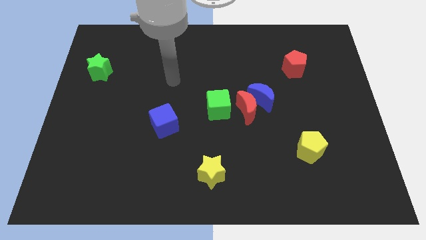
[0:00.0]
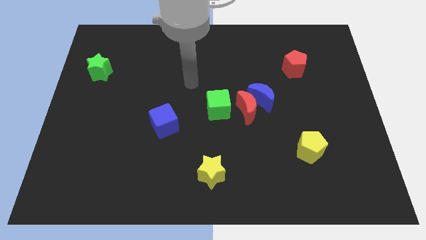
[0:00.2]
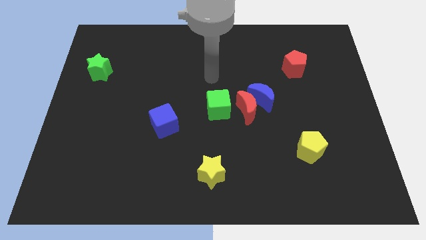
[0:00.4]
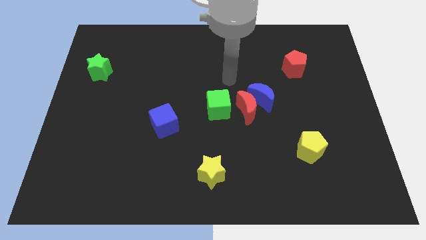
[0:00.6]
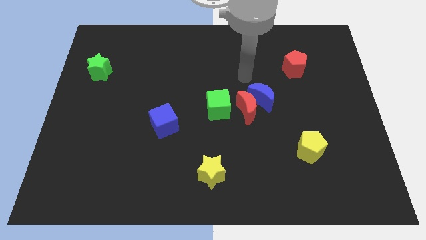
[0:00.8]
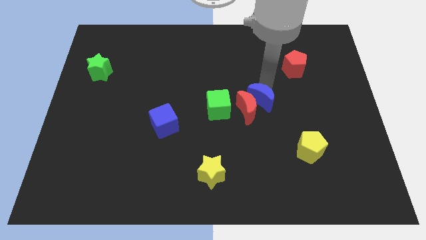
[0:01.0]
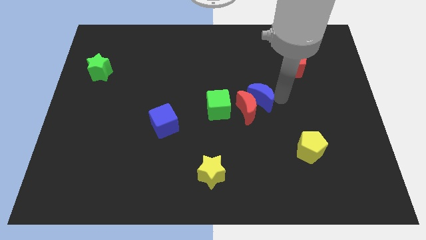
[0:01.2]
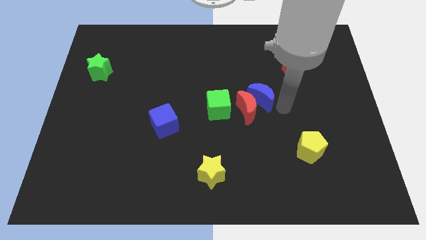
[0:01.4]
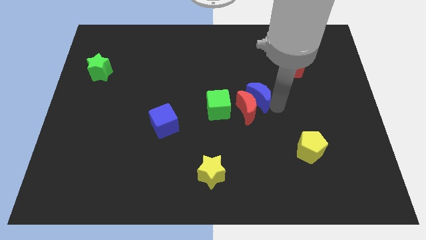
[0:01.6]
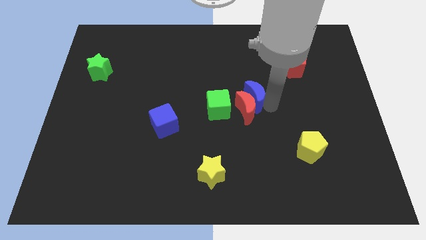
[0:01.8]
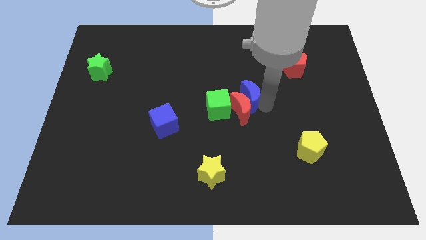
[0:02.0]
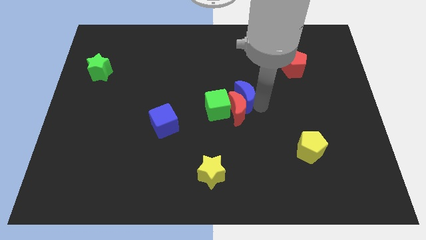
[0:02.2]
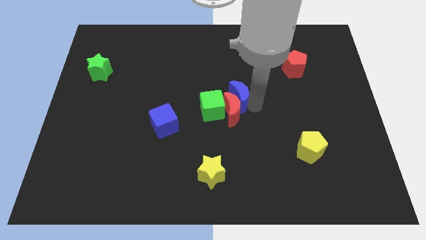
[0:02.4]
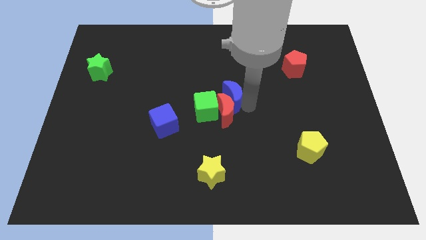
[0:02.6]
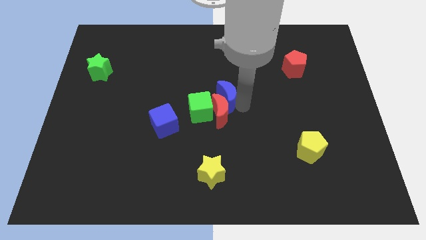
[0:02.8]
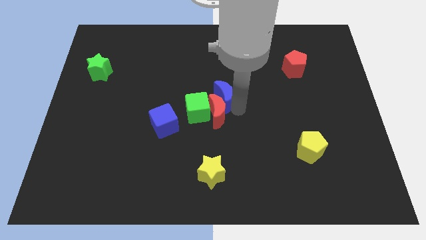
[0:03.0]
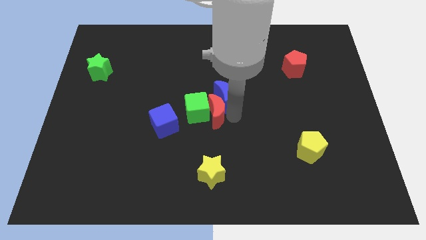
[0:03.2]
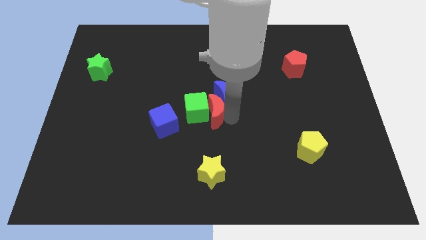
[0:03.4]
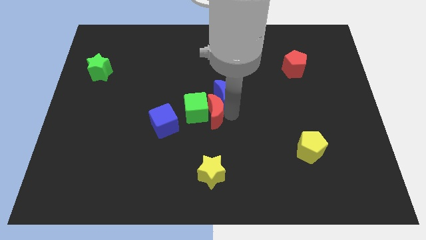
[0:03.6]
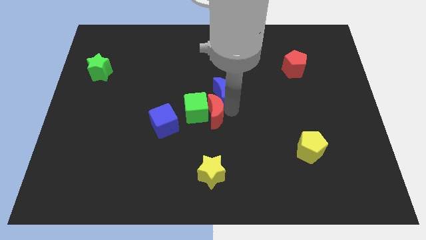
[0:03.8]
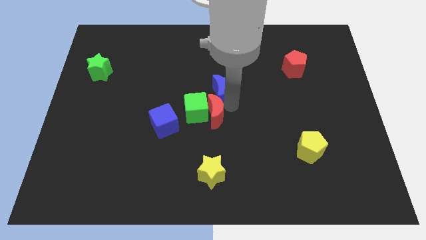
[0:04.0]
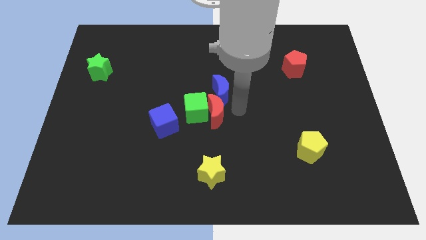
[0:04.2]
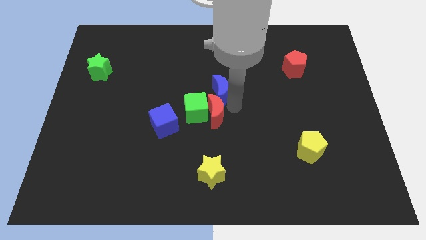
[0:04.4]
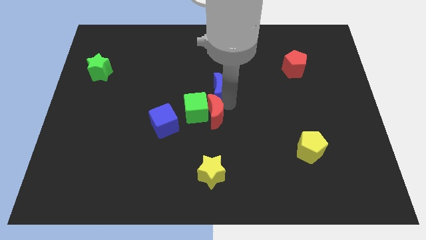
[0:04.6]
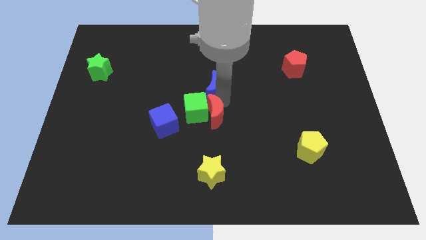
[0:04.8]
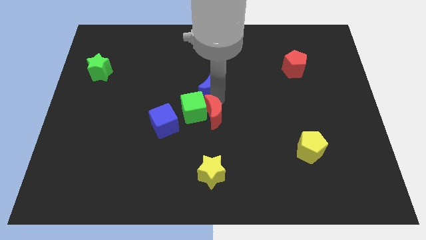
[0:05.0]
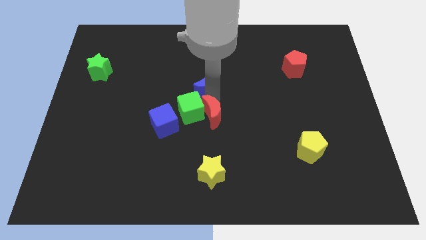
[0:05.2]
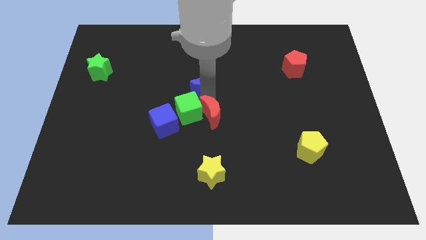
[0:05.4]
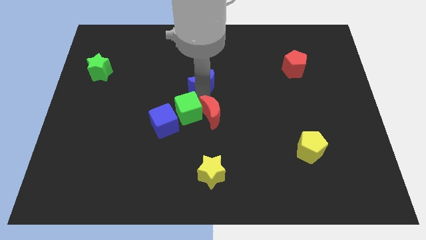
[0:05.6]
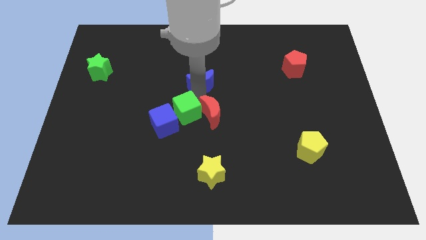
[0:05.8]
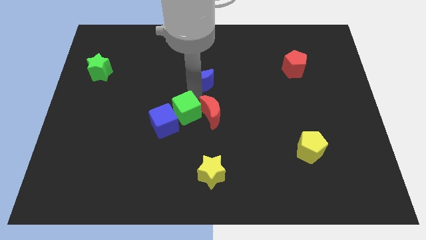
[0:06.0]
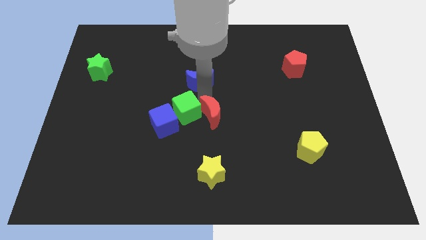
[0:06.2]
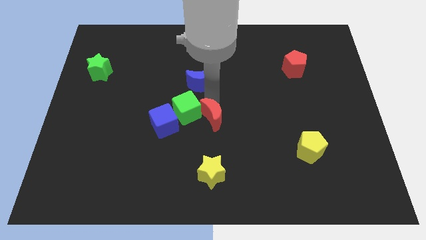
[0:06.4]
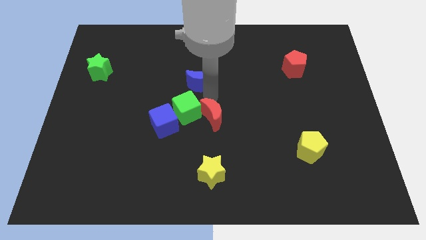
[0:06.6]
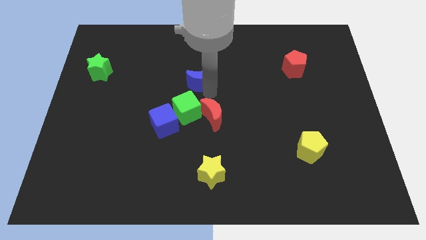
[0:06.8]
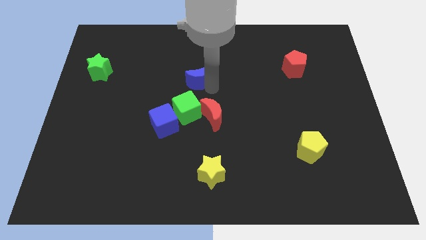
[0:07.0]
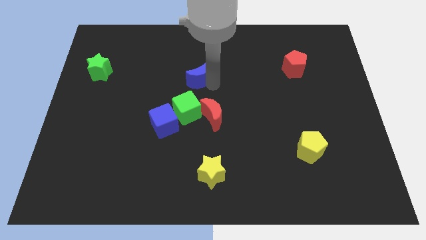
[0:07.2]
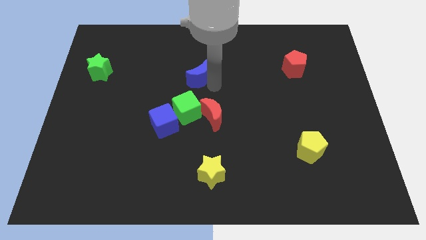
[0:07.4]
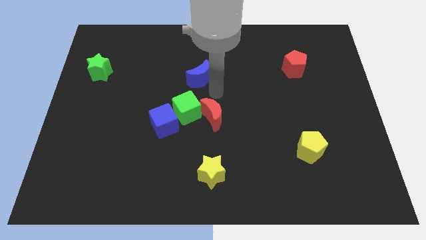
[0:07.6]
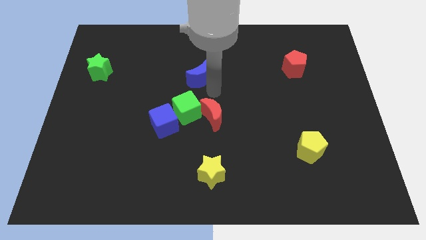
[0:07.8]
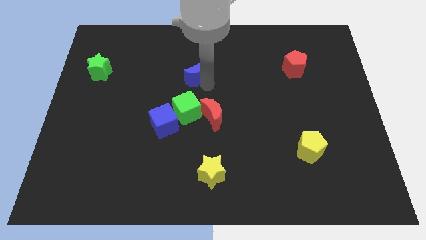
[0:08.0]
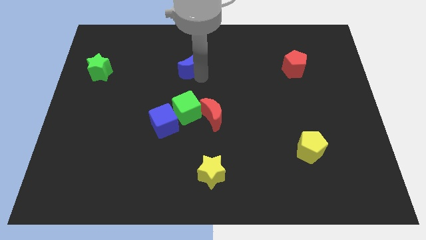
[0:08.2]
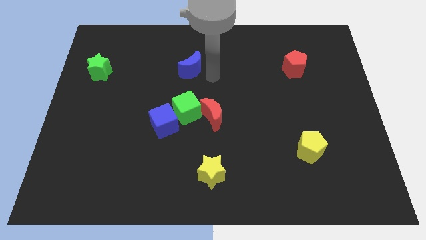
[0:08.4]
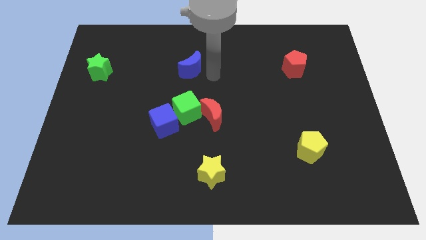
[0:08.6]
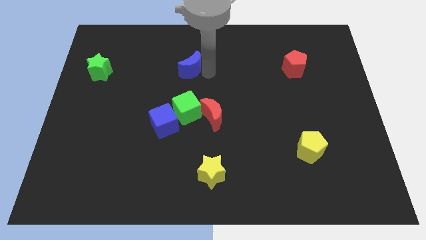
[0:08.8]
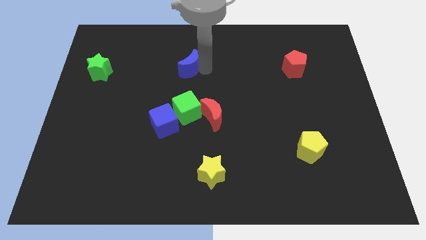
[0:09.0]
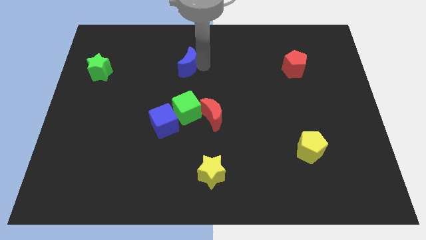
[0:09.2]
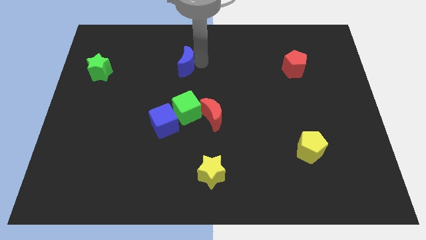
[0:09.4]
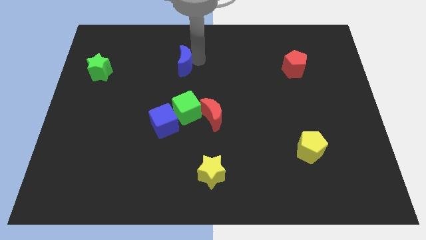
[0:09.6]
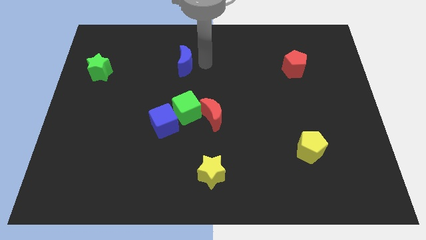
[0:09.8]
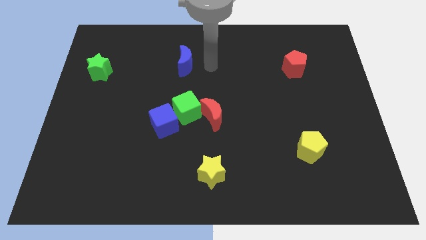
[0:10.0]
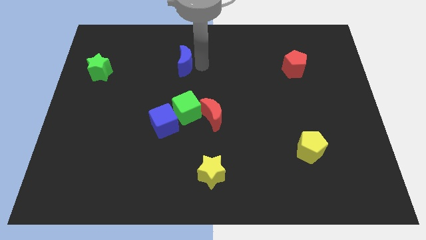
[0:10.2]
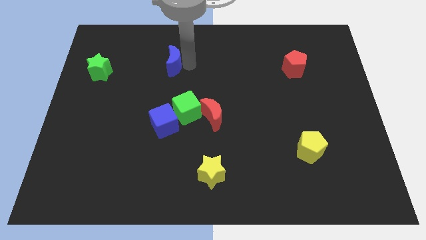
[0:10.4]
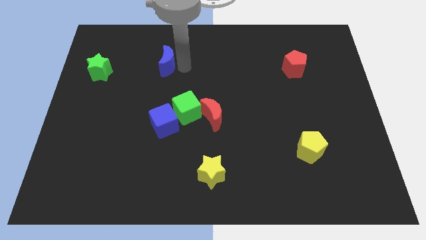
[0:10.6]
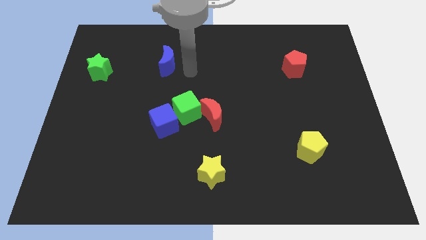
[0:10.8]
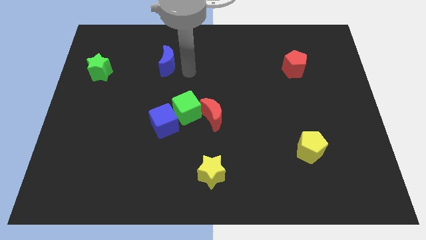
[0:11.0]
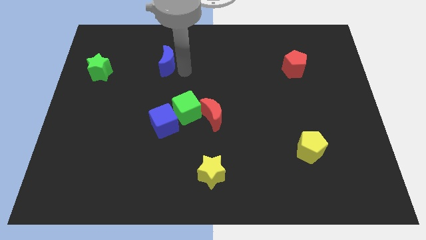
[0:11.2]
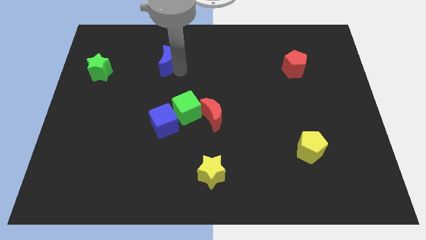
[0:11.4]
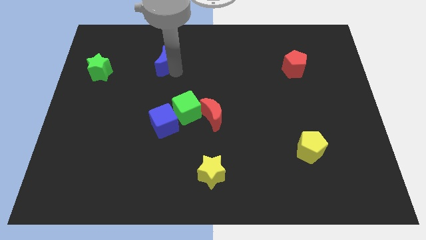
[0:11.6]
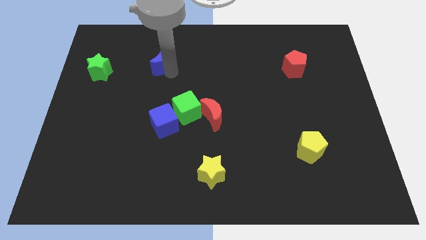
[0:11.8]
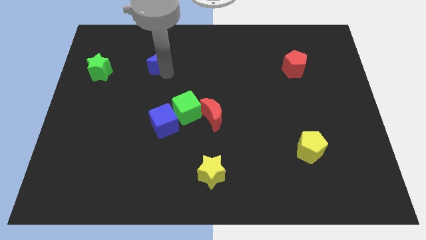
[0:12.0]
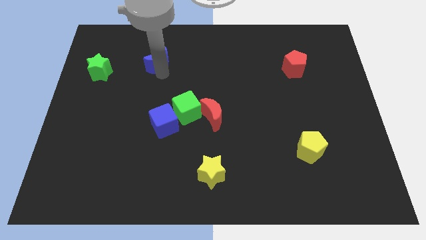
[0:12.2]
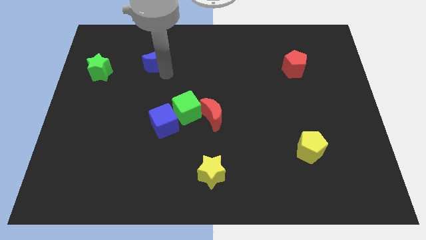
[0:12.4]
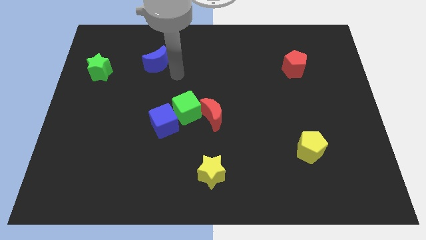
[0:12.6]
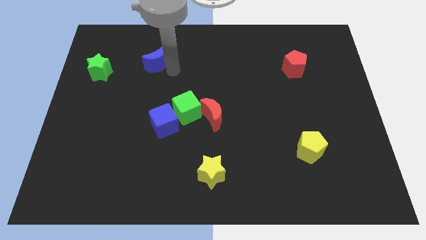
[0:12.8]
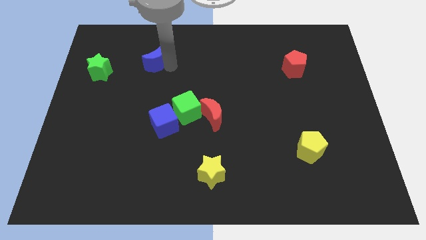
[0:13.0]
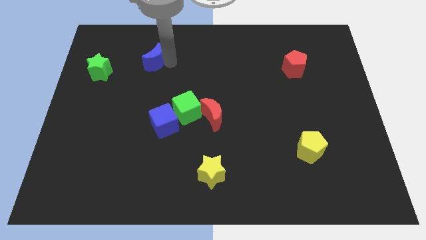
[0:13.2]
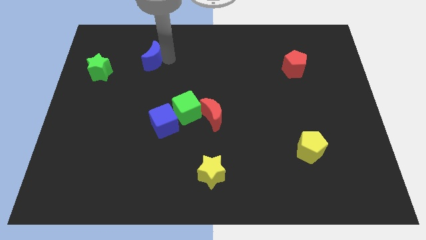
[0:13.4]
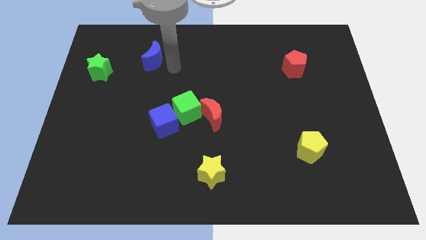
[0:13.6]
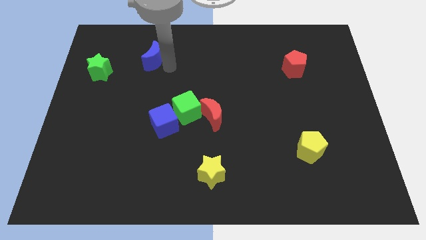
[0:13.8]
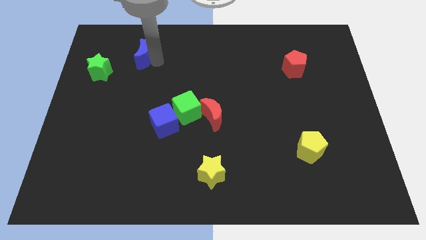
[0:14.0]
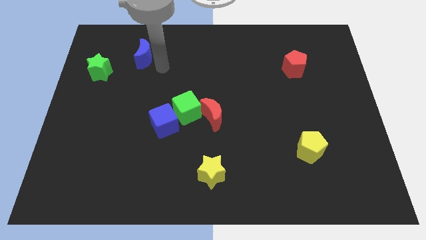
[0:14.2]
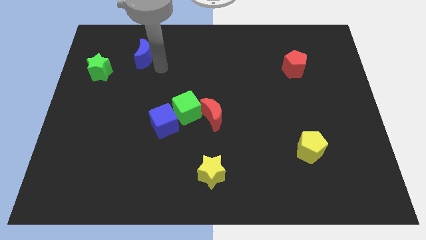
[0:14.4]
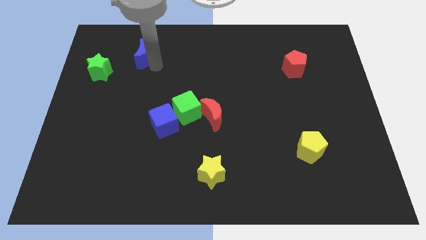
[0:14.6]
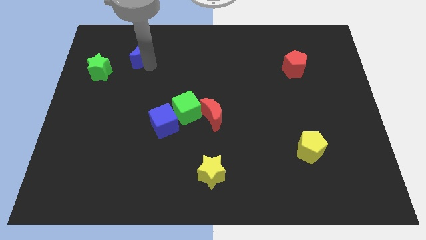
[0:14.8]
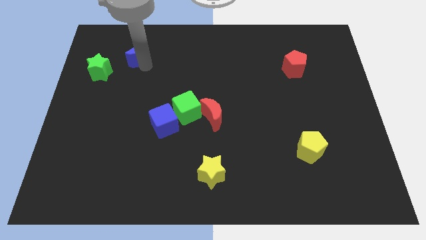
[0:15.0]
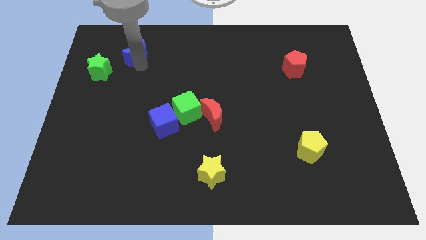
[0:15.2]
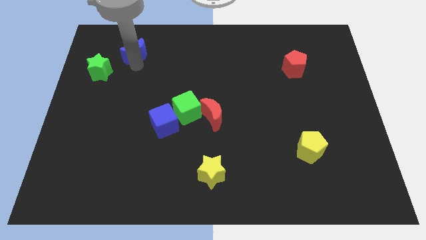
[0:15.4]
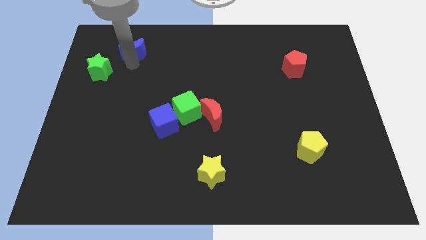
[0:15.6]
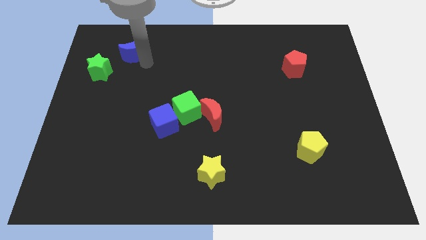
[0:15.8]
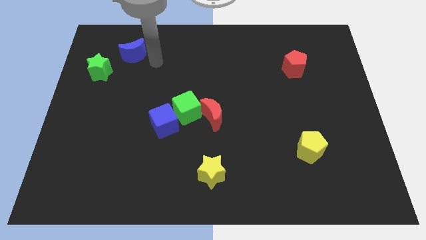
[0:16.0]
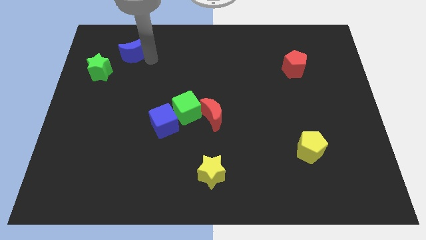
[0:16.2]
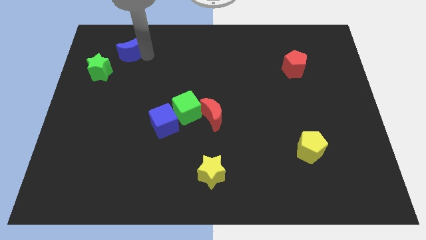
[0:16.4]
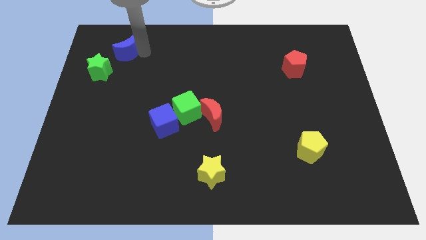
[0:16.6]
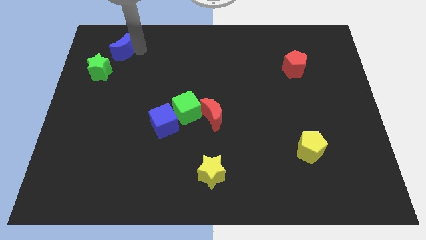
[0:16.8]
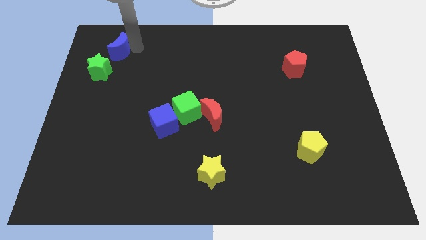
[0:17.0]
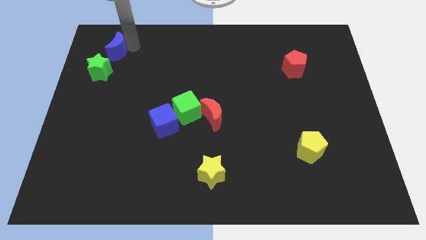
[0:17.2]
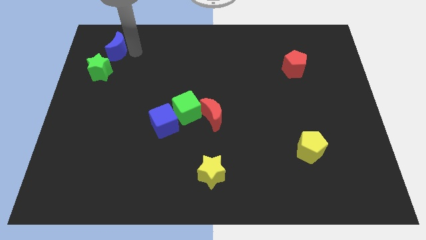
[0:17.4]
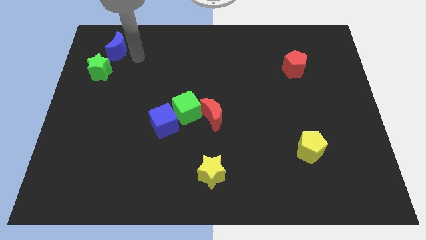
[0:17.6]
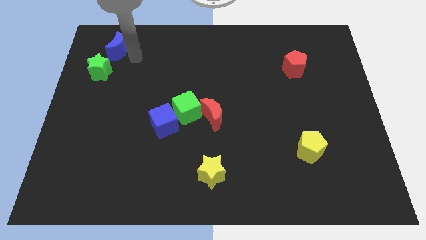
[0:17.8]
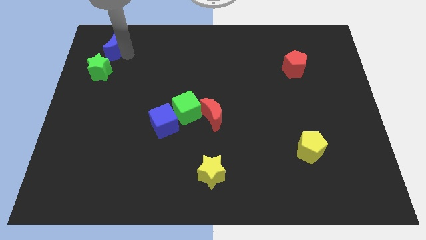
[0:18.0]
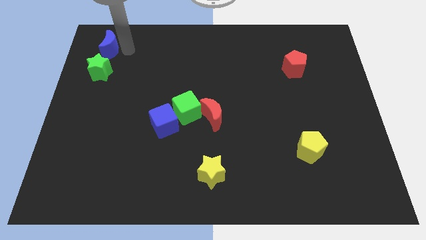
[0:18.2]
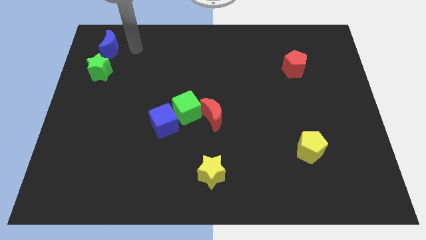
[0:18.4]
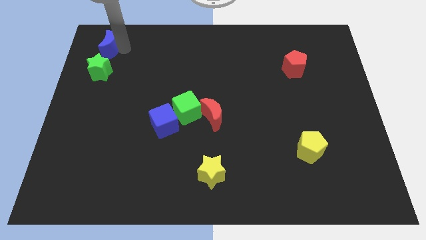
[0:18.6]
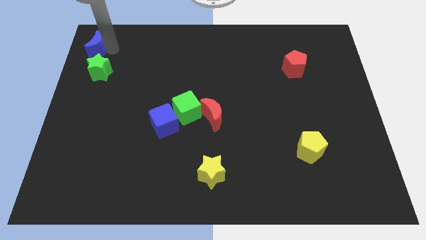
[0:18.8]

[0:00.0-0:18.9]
put the blue moon to the upper left corner
